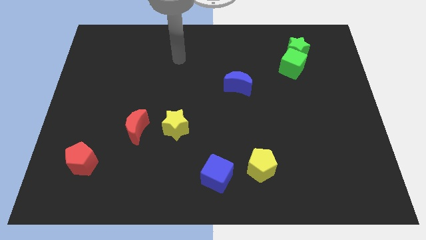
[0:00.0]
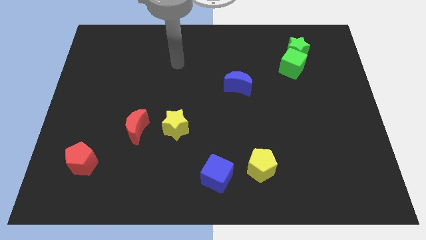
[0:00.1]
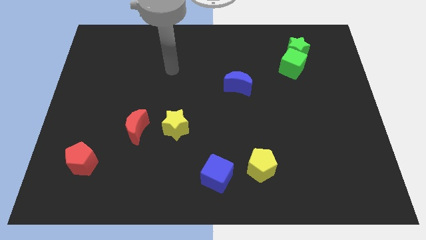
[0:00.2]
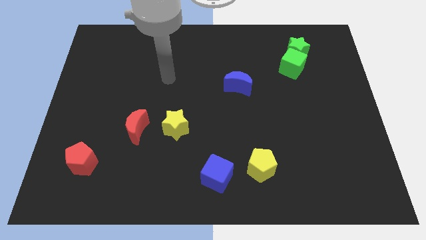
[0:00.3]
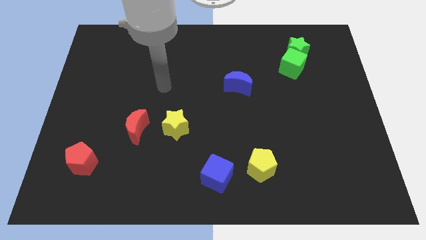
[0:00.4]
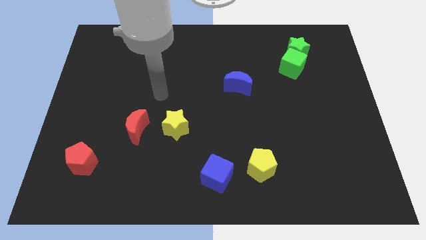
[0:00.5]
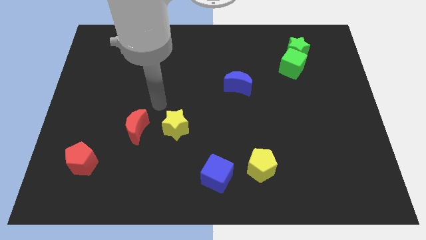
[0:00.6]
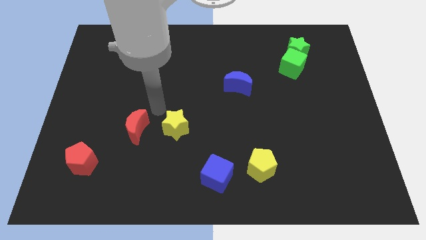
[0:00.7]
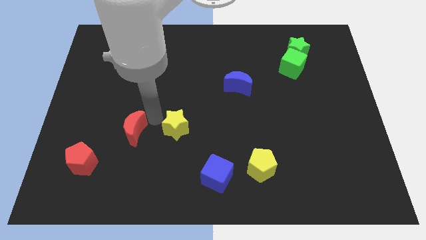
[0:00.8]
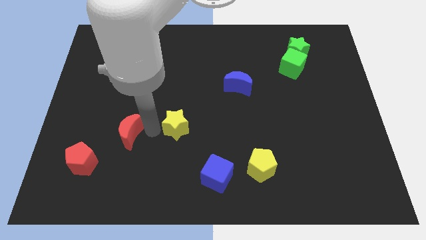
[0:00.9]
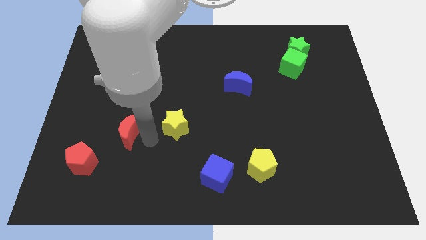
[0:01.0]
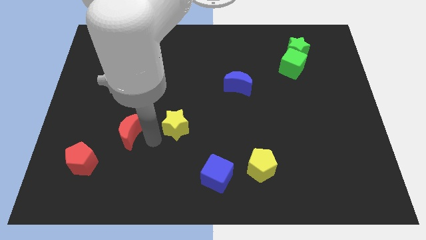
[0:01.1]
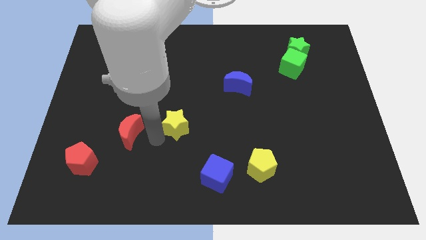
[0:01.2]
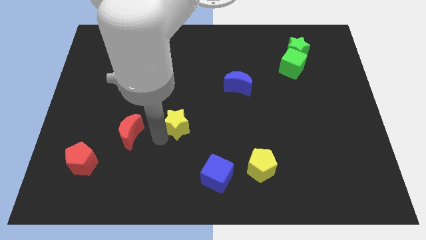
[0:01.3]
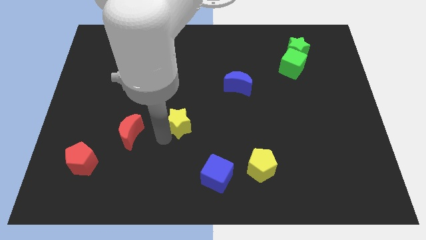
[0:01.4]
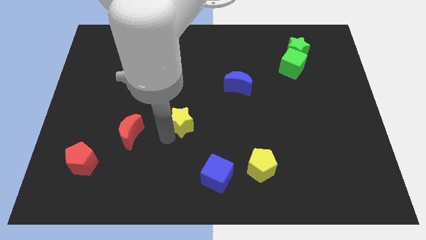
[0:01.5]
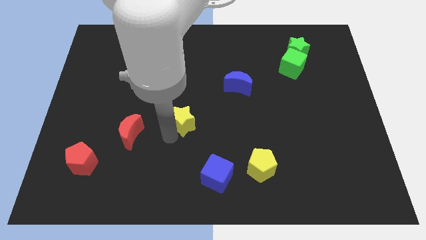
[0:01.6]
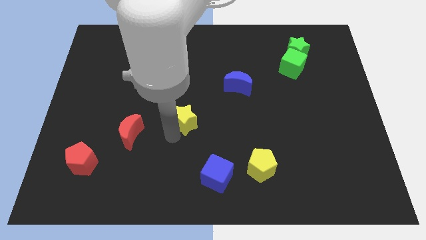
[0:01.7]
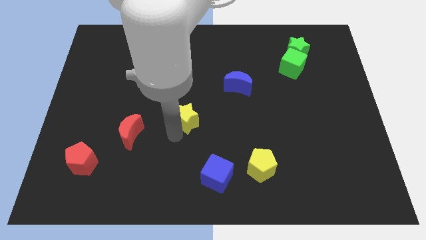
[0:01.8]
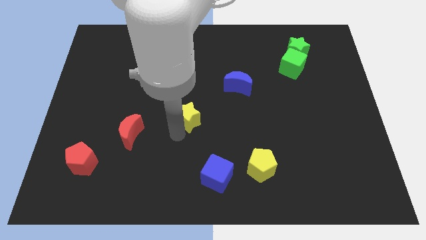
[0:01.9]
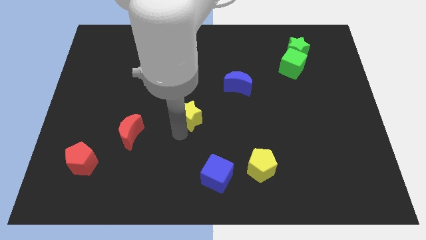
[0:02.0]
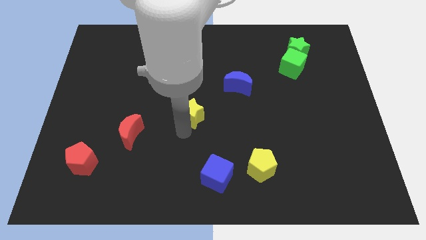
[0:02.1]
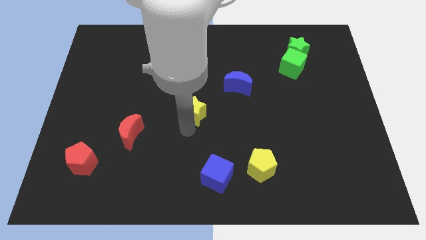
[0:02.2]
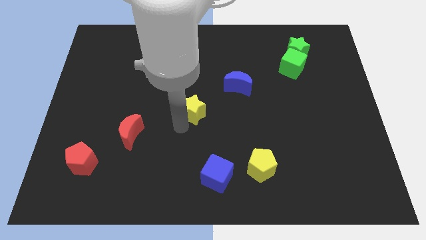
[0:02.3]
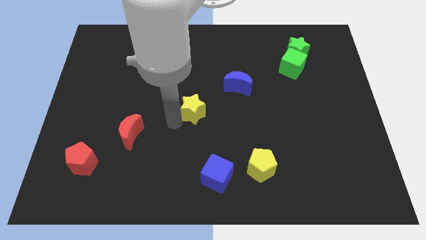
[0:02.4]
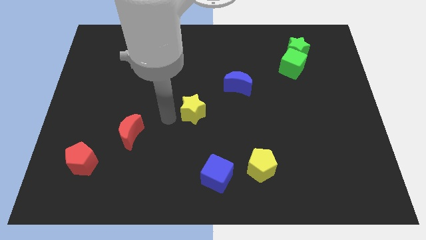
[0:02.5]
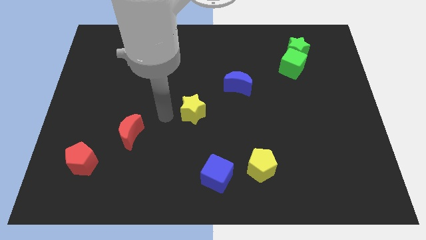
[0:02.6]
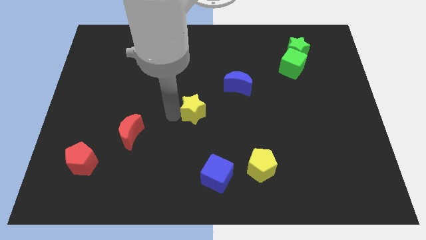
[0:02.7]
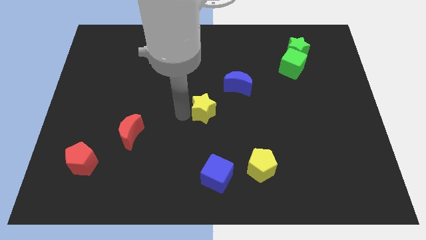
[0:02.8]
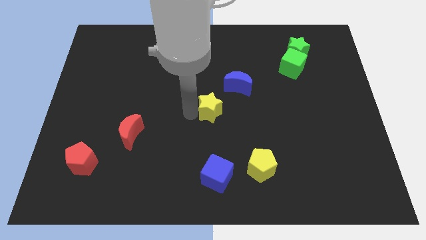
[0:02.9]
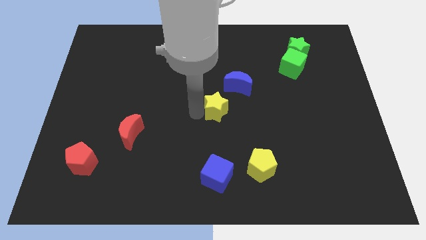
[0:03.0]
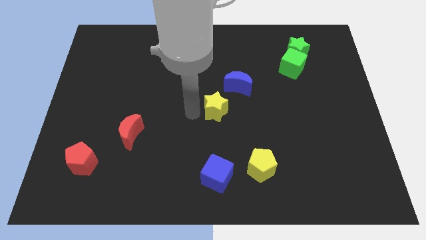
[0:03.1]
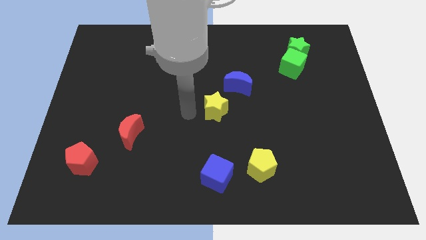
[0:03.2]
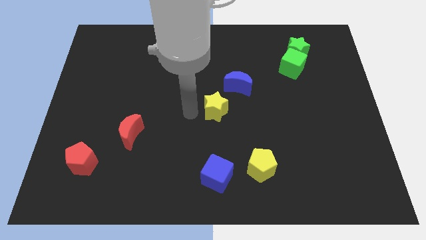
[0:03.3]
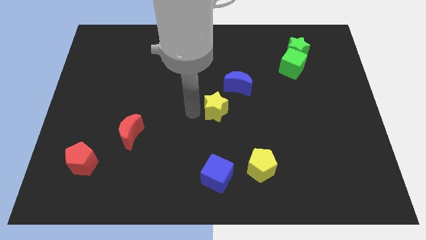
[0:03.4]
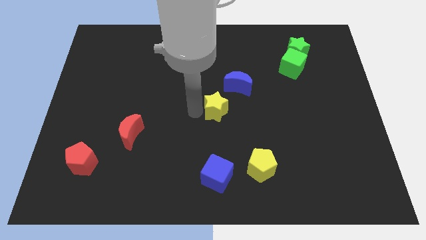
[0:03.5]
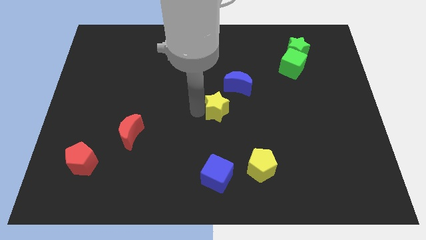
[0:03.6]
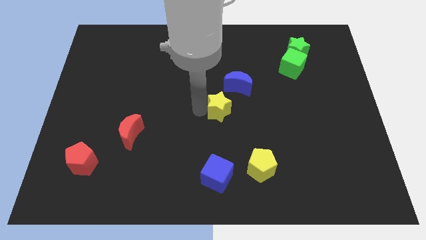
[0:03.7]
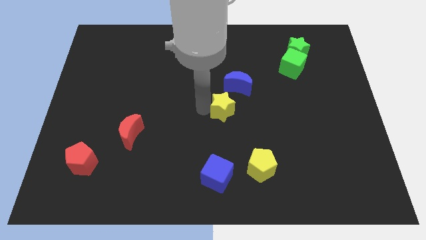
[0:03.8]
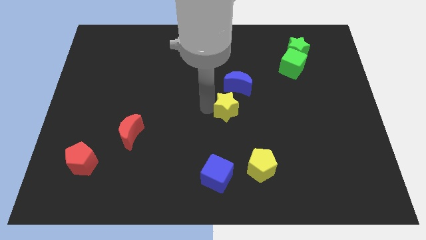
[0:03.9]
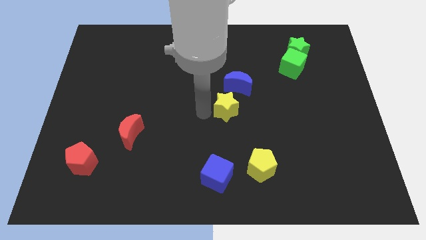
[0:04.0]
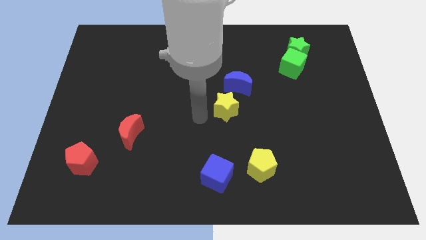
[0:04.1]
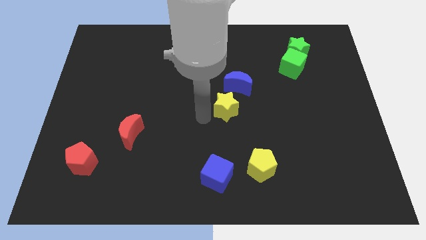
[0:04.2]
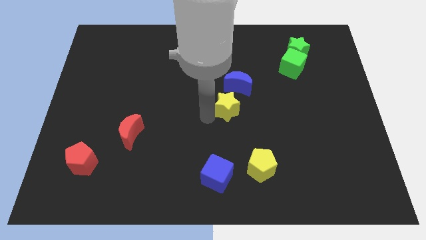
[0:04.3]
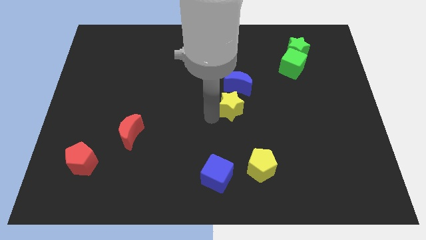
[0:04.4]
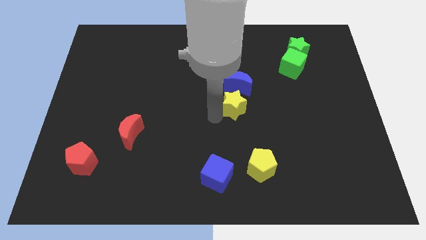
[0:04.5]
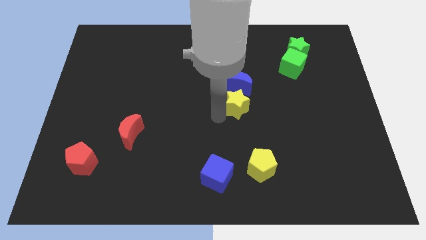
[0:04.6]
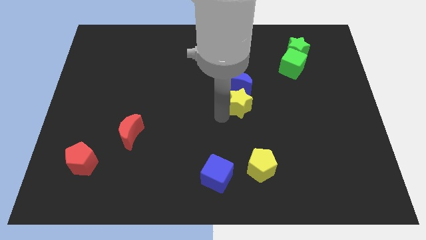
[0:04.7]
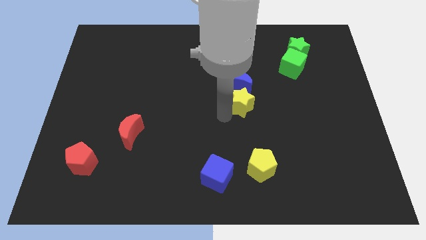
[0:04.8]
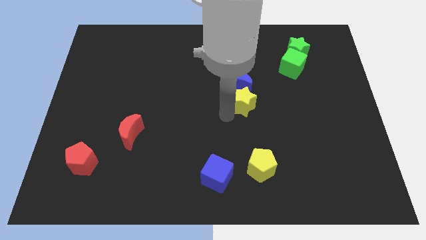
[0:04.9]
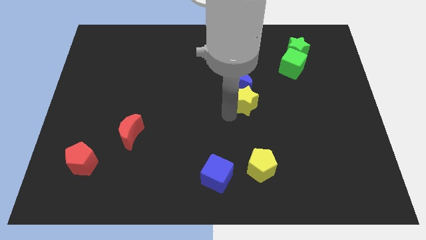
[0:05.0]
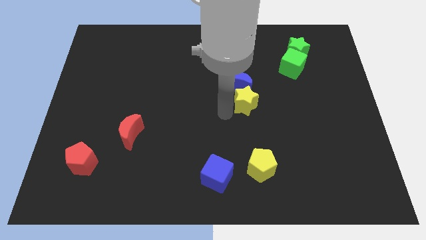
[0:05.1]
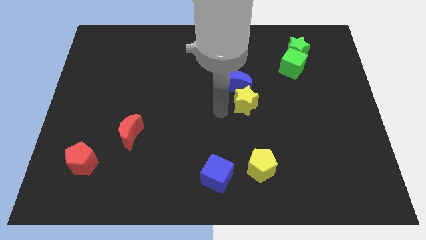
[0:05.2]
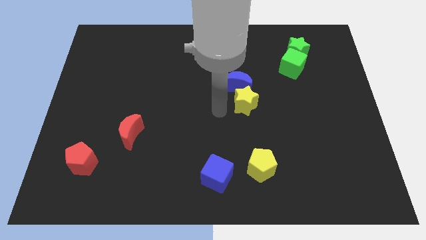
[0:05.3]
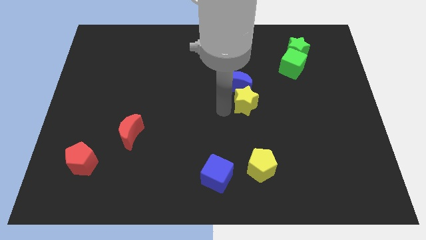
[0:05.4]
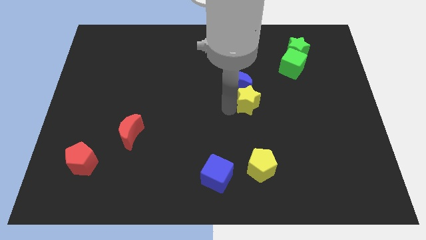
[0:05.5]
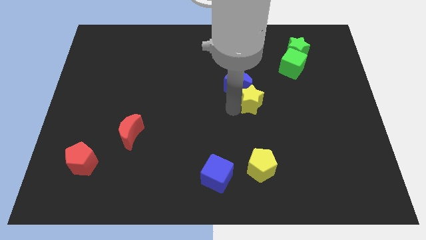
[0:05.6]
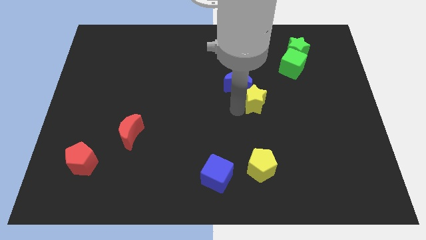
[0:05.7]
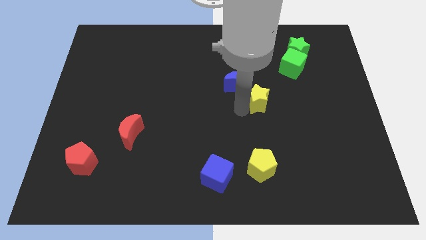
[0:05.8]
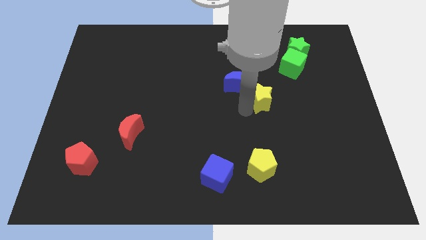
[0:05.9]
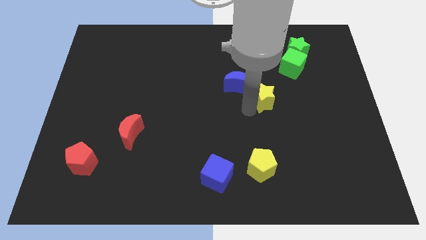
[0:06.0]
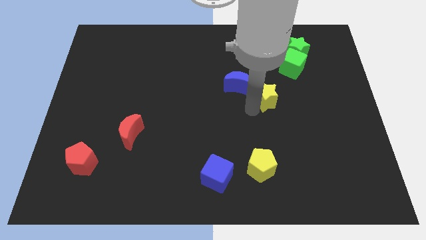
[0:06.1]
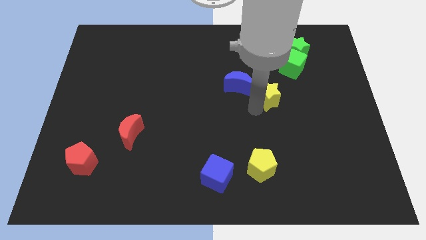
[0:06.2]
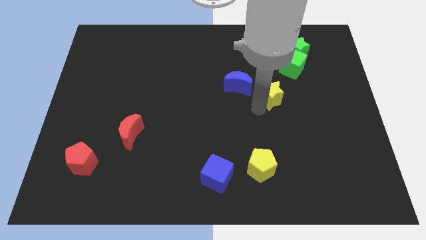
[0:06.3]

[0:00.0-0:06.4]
push the yellow star diagonally down and to the left of the green cube

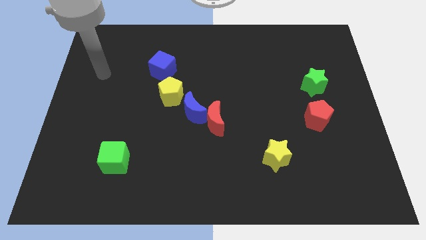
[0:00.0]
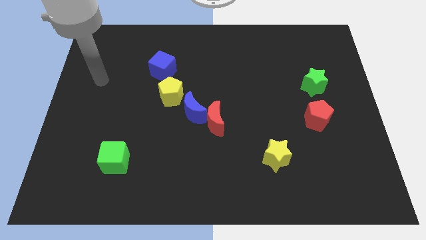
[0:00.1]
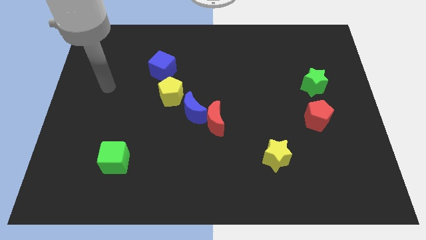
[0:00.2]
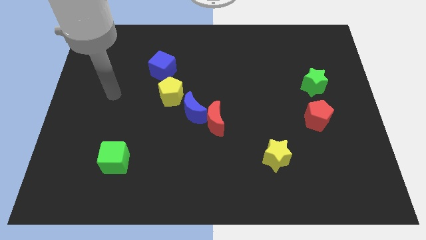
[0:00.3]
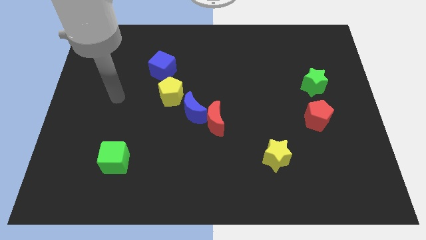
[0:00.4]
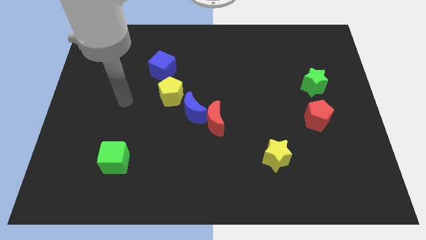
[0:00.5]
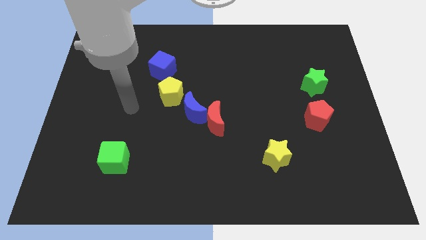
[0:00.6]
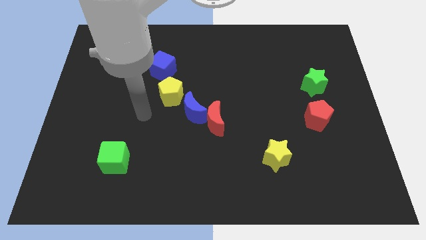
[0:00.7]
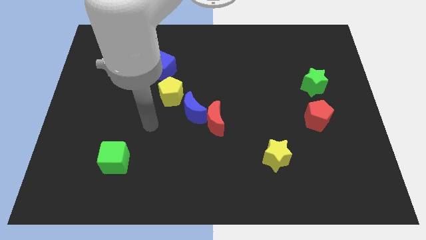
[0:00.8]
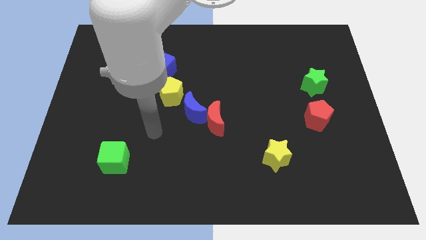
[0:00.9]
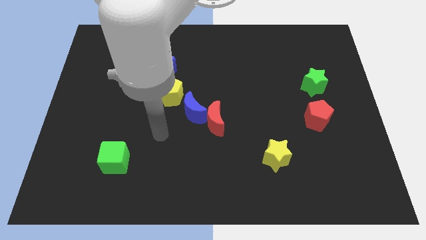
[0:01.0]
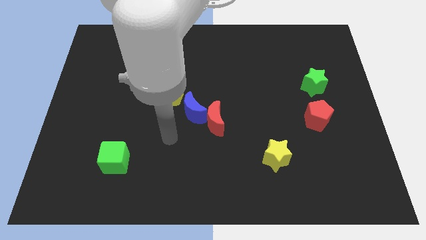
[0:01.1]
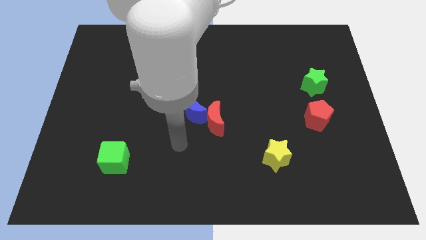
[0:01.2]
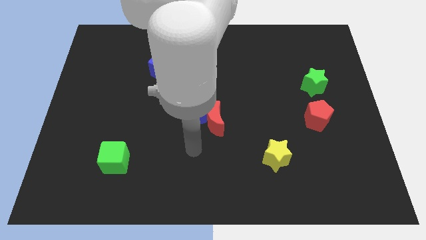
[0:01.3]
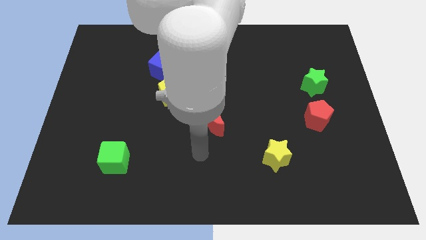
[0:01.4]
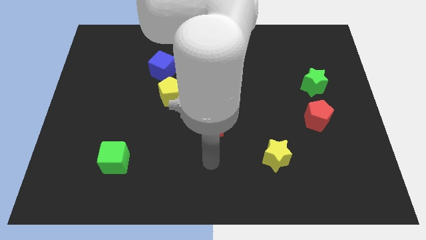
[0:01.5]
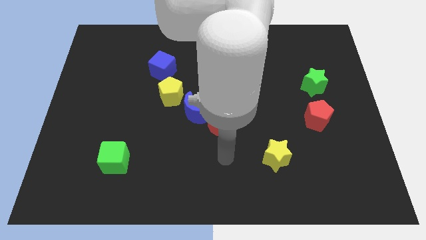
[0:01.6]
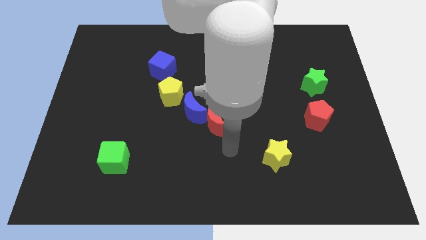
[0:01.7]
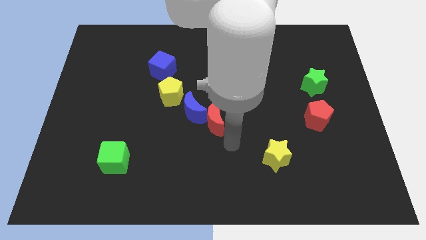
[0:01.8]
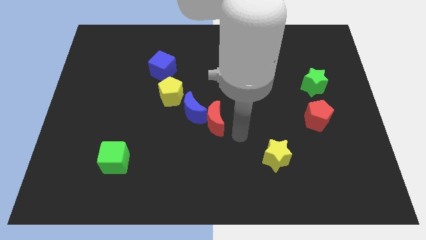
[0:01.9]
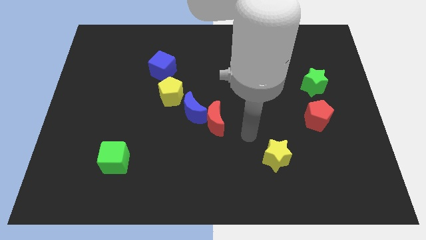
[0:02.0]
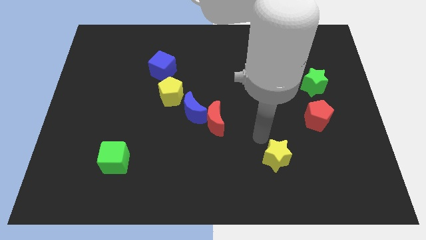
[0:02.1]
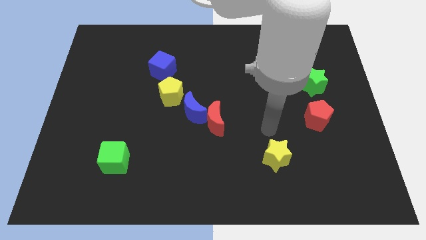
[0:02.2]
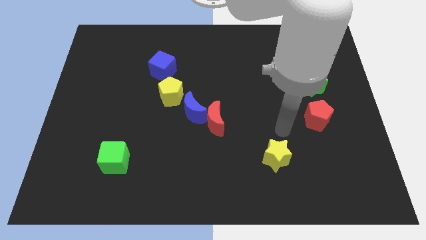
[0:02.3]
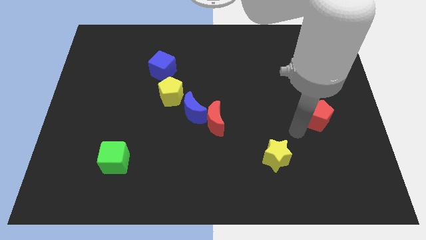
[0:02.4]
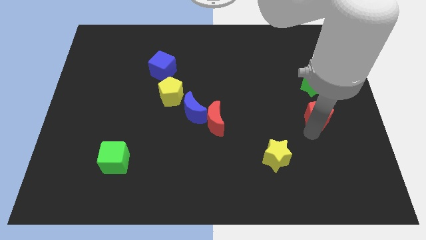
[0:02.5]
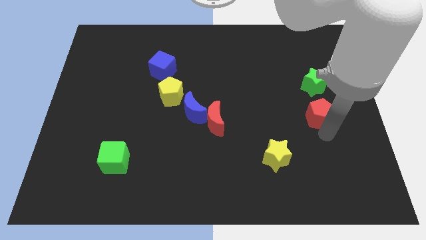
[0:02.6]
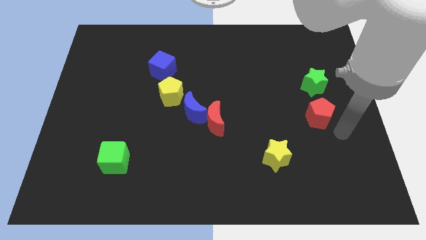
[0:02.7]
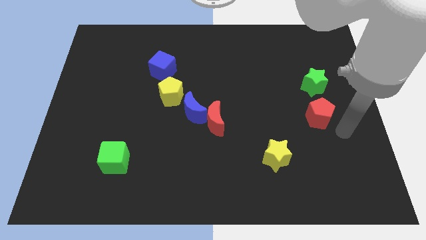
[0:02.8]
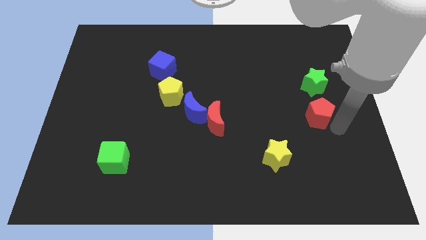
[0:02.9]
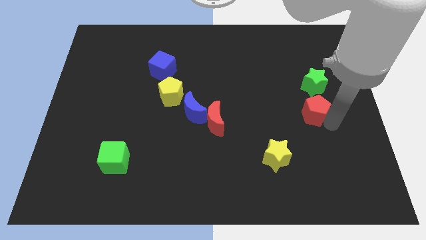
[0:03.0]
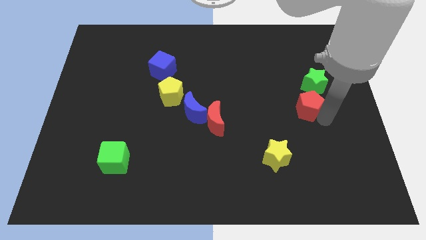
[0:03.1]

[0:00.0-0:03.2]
put the red pentagon to the bottom left side of the green star
